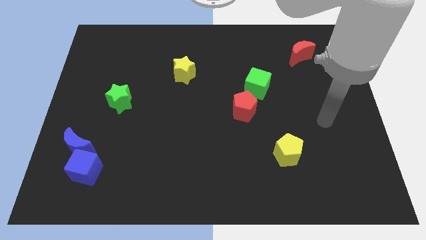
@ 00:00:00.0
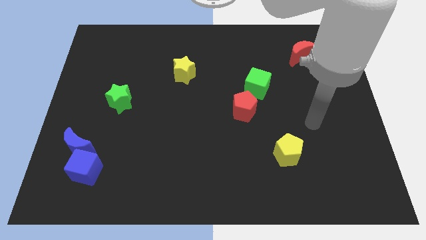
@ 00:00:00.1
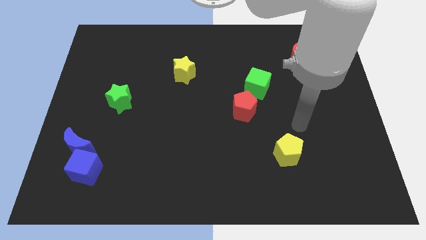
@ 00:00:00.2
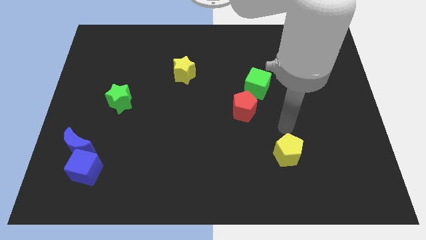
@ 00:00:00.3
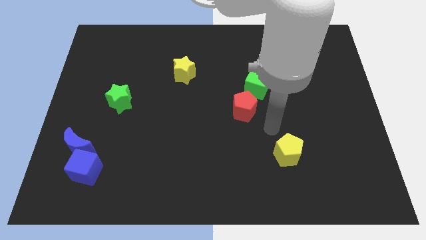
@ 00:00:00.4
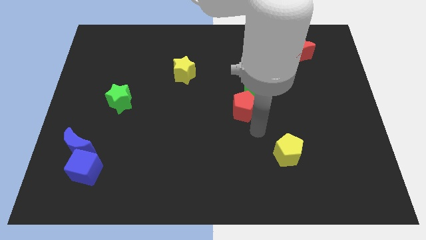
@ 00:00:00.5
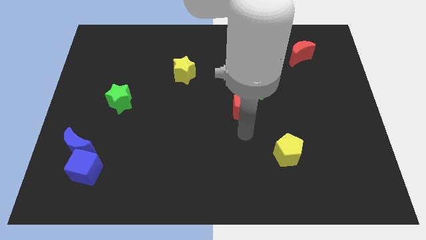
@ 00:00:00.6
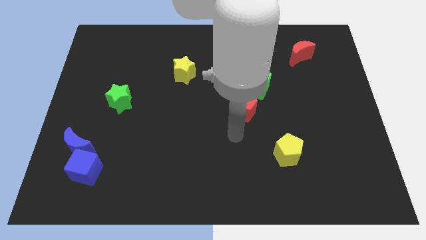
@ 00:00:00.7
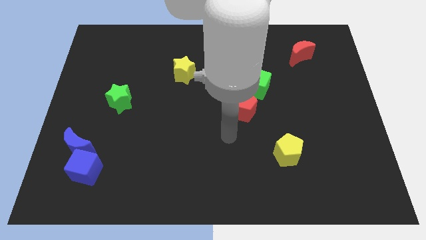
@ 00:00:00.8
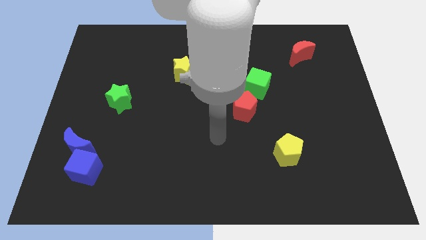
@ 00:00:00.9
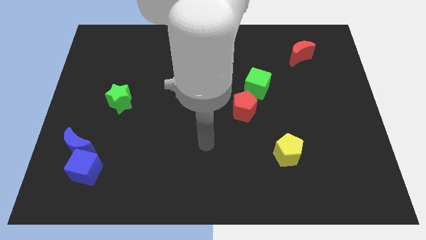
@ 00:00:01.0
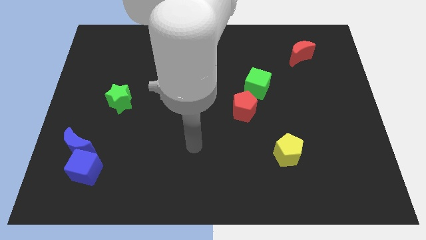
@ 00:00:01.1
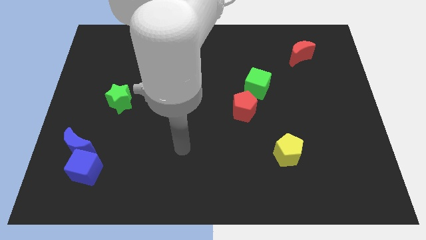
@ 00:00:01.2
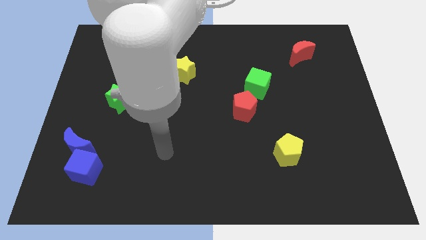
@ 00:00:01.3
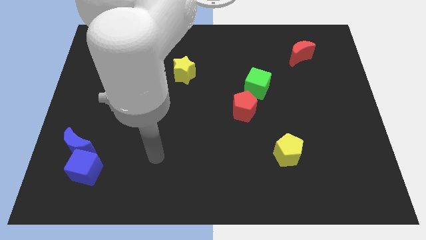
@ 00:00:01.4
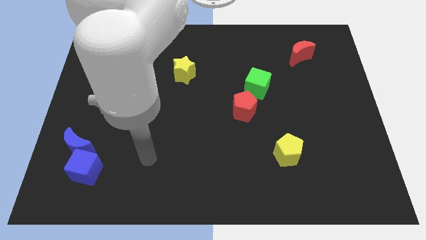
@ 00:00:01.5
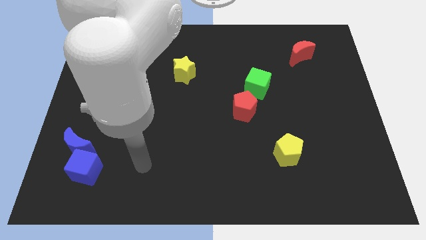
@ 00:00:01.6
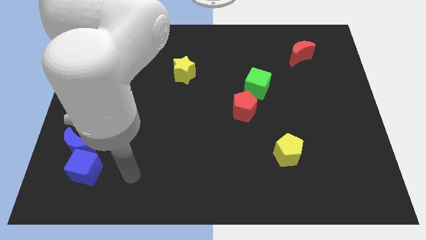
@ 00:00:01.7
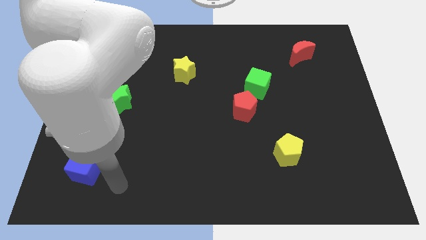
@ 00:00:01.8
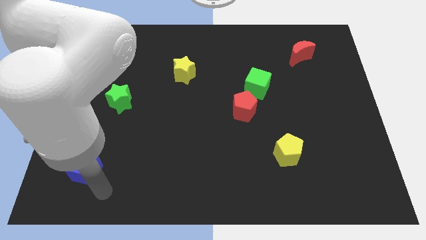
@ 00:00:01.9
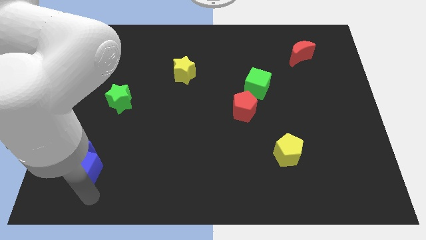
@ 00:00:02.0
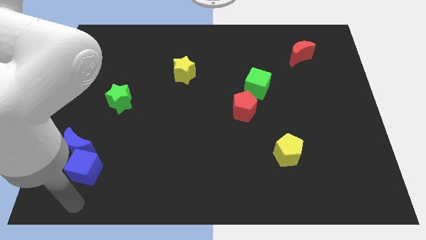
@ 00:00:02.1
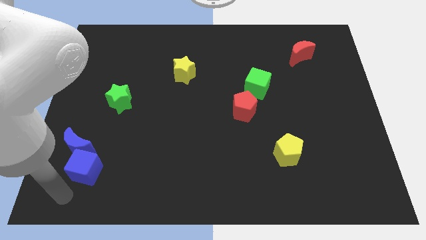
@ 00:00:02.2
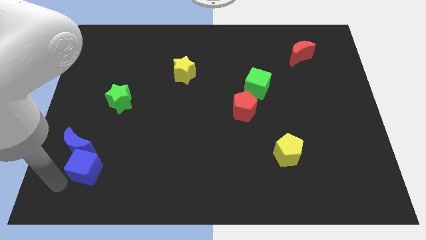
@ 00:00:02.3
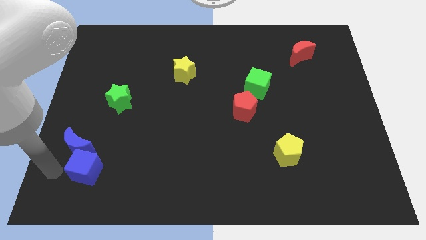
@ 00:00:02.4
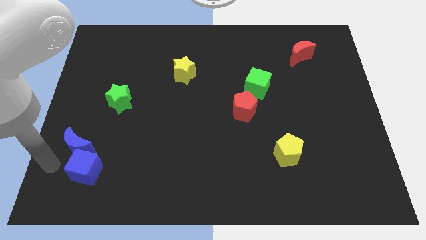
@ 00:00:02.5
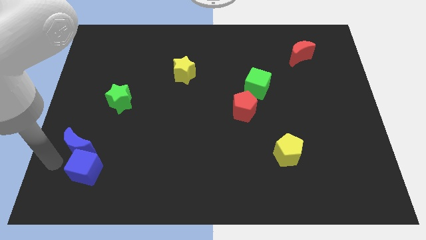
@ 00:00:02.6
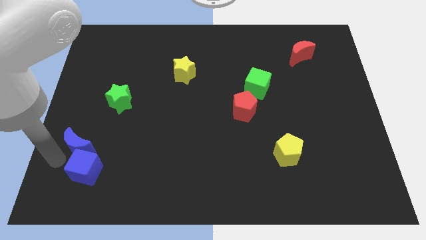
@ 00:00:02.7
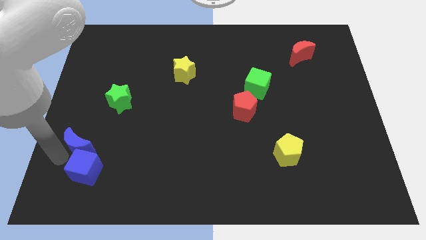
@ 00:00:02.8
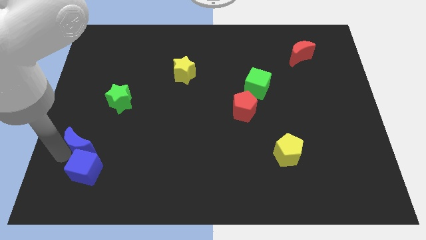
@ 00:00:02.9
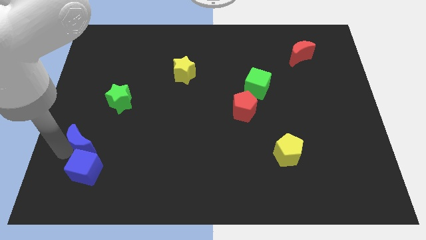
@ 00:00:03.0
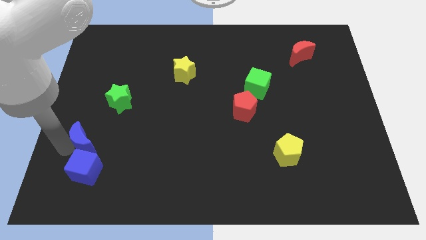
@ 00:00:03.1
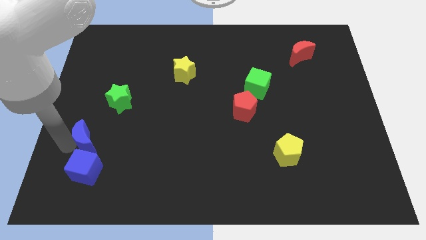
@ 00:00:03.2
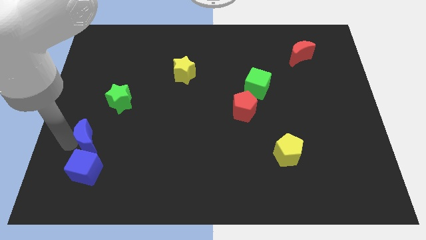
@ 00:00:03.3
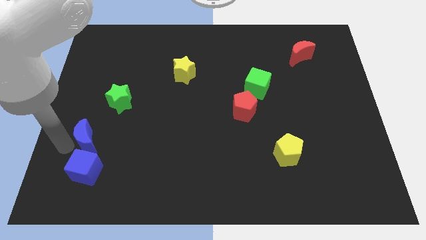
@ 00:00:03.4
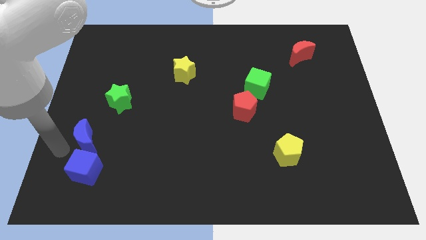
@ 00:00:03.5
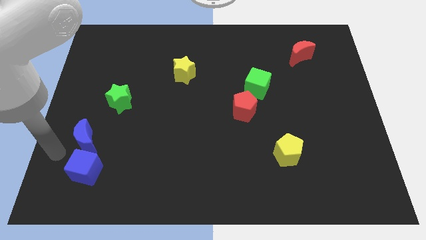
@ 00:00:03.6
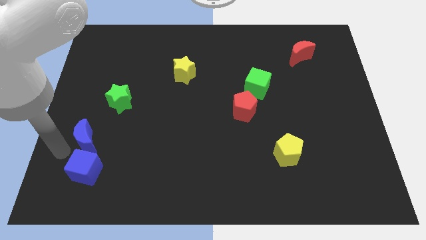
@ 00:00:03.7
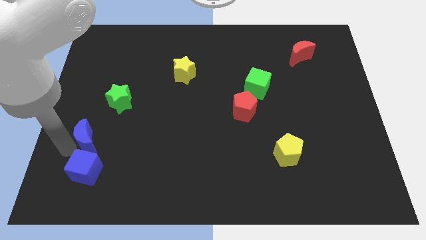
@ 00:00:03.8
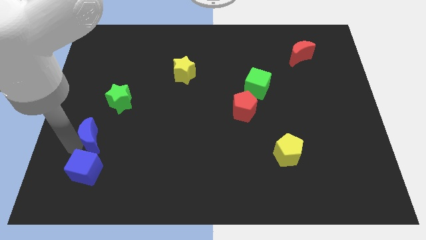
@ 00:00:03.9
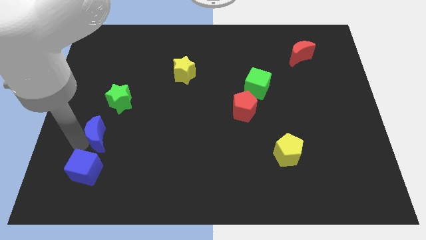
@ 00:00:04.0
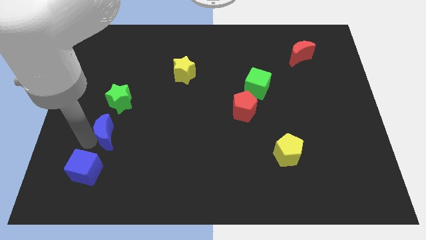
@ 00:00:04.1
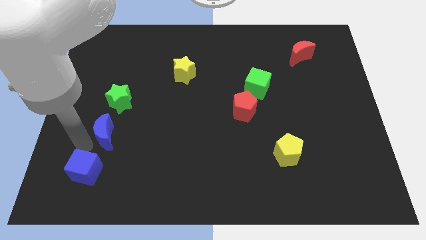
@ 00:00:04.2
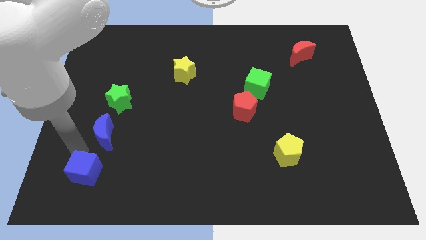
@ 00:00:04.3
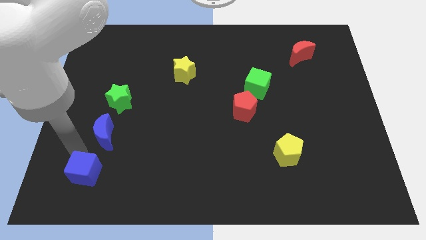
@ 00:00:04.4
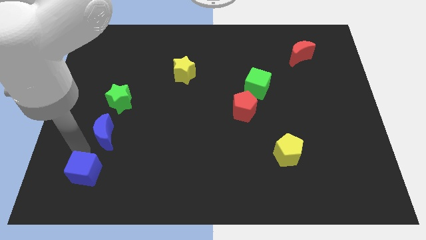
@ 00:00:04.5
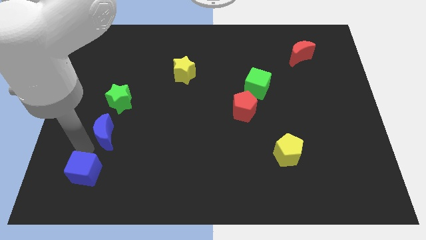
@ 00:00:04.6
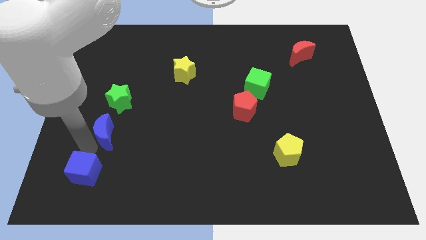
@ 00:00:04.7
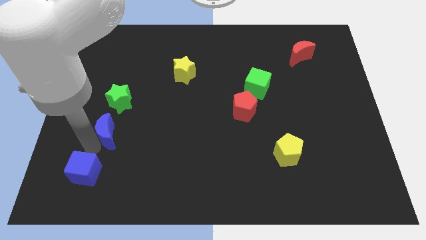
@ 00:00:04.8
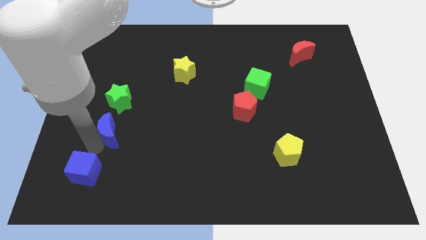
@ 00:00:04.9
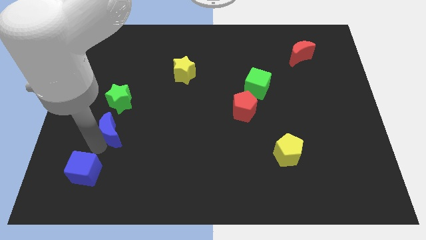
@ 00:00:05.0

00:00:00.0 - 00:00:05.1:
slightly move the blue moon diagonally upwards and right

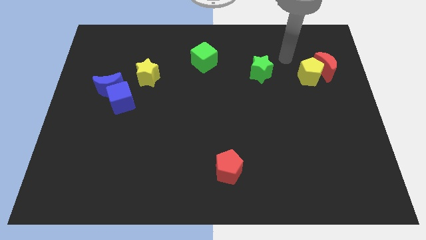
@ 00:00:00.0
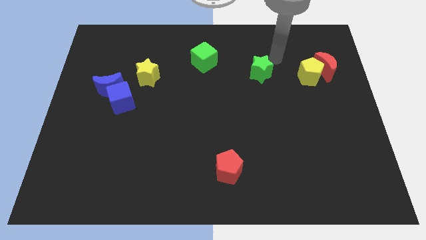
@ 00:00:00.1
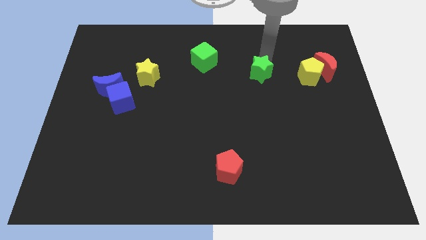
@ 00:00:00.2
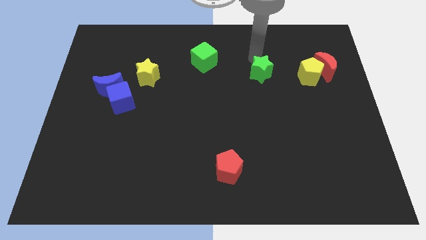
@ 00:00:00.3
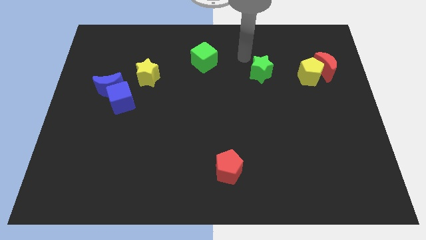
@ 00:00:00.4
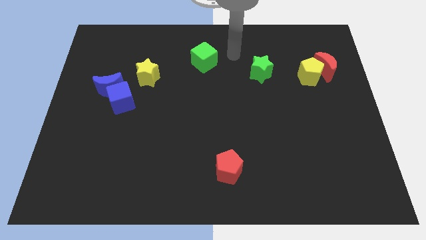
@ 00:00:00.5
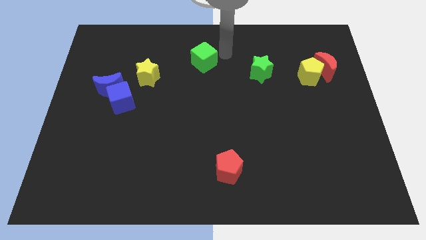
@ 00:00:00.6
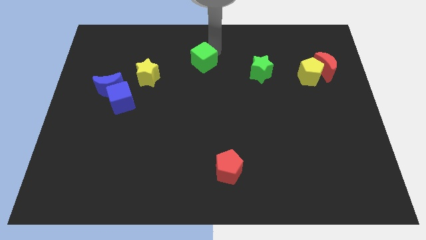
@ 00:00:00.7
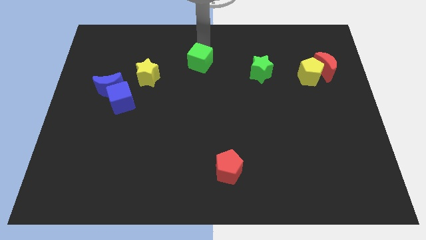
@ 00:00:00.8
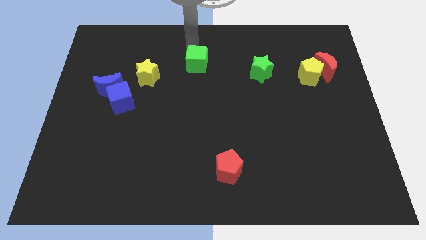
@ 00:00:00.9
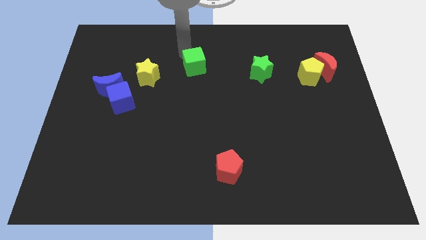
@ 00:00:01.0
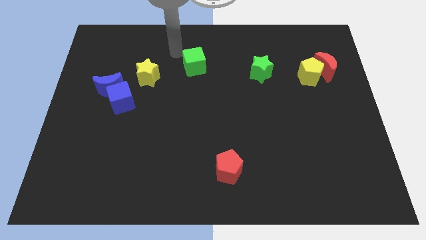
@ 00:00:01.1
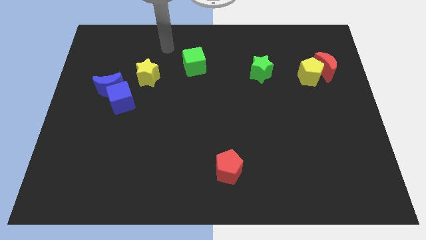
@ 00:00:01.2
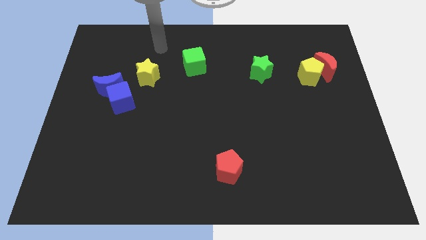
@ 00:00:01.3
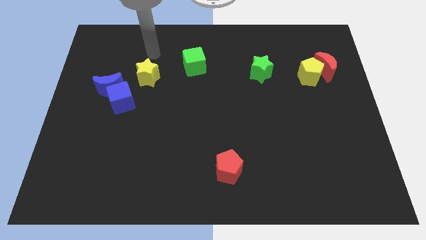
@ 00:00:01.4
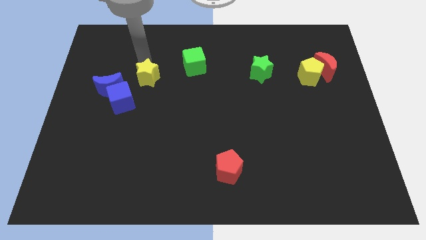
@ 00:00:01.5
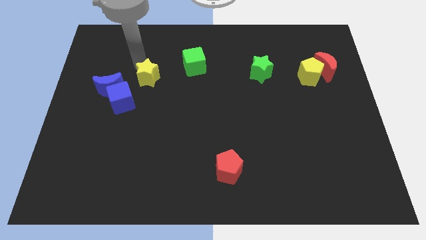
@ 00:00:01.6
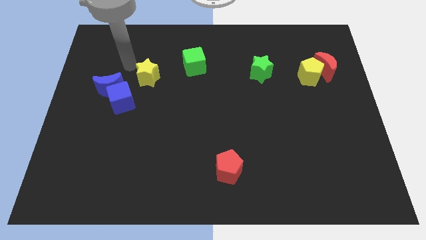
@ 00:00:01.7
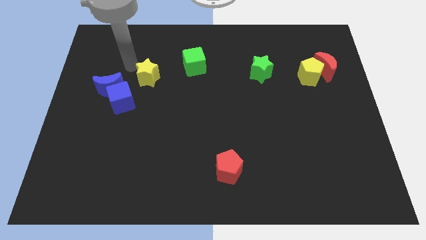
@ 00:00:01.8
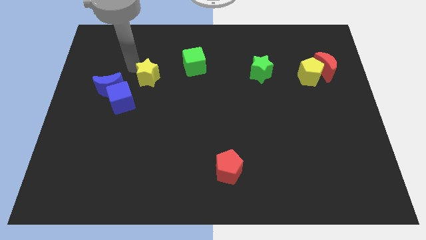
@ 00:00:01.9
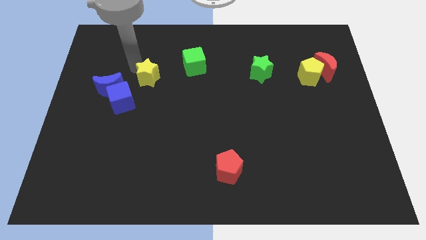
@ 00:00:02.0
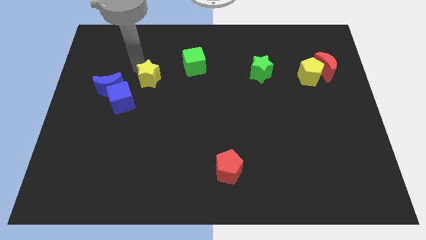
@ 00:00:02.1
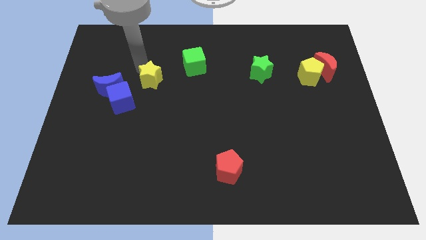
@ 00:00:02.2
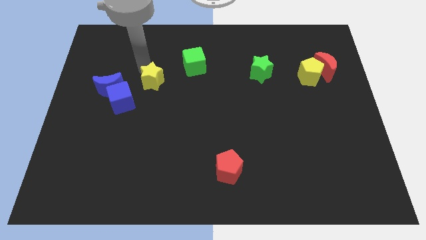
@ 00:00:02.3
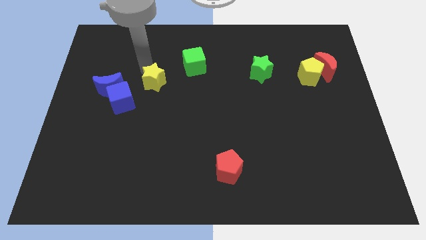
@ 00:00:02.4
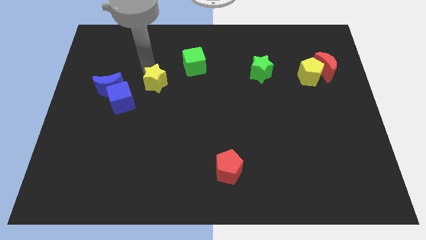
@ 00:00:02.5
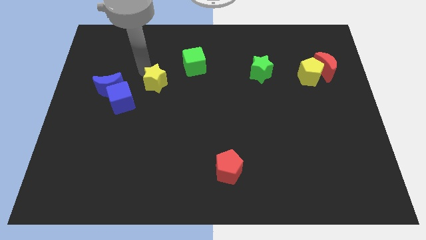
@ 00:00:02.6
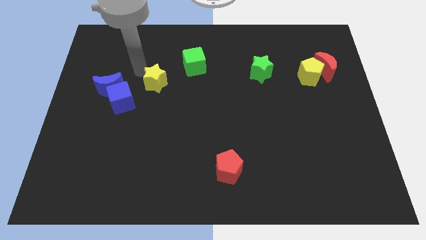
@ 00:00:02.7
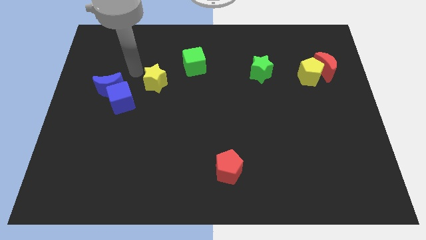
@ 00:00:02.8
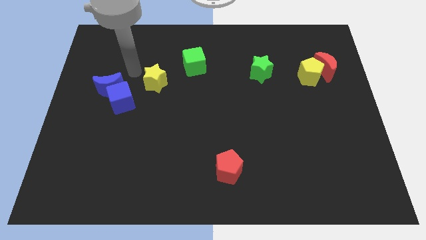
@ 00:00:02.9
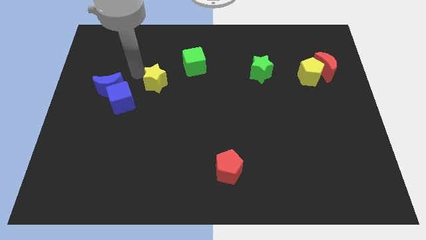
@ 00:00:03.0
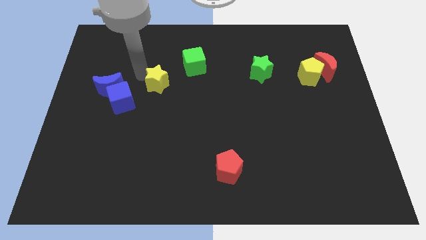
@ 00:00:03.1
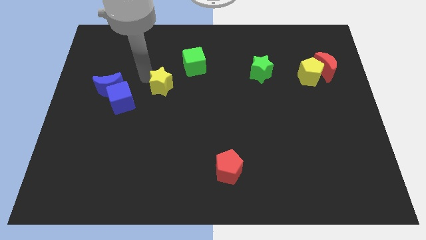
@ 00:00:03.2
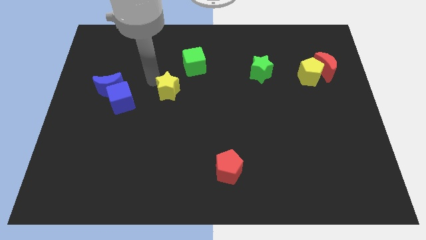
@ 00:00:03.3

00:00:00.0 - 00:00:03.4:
slightly move the yellow star down and right diagonally
